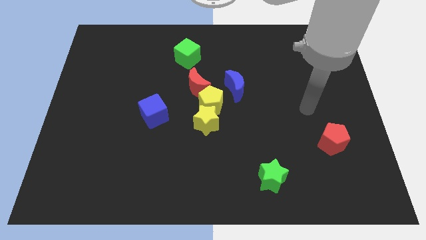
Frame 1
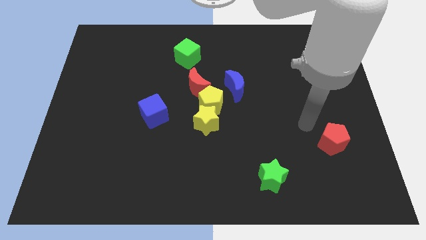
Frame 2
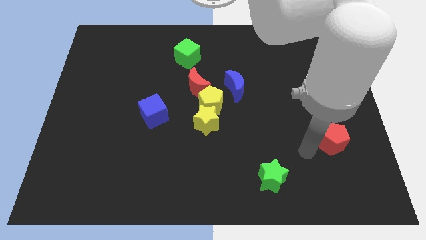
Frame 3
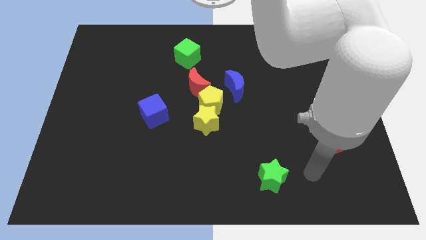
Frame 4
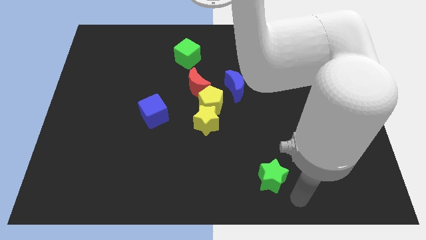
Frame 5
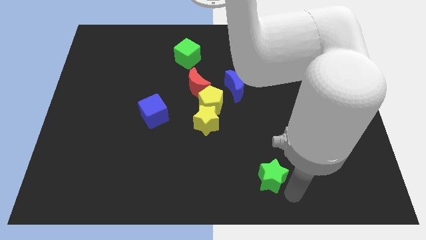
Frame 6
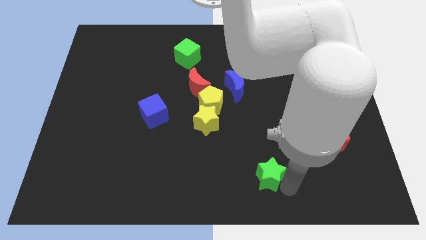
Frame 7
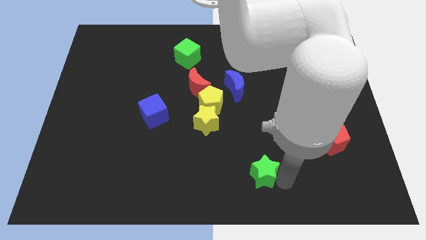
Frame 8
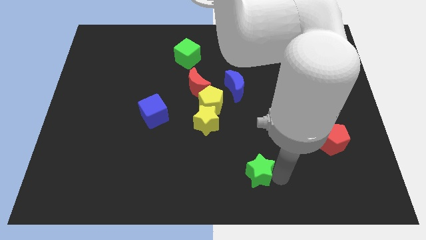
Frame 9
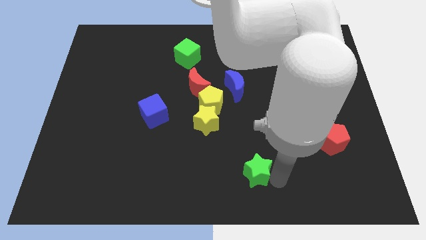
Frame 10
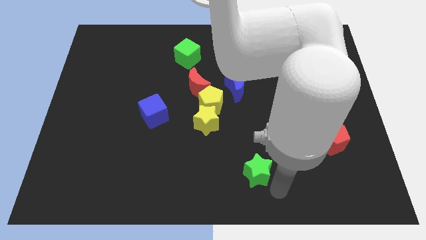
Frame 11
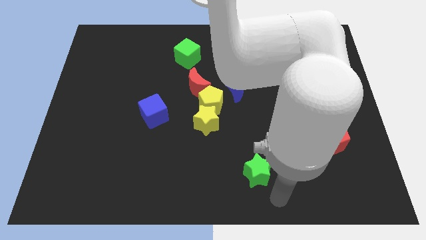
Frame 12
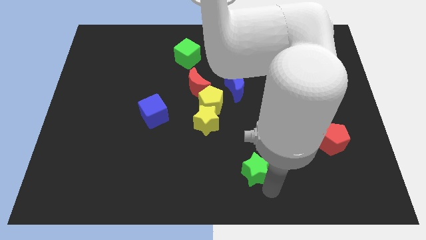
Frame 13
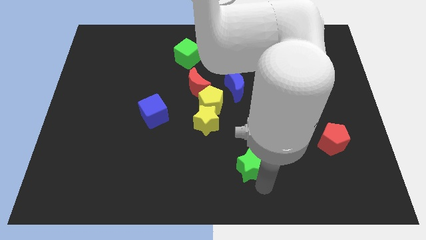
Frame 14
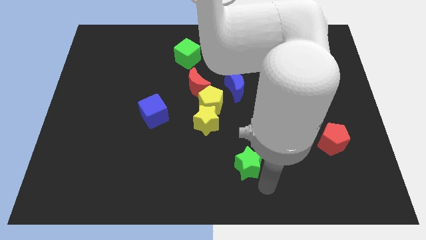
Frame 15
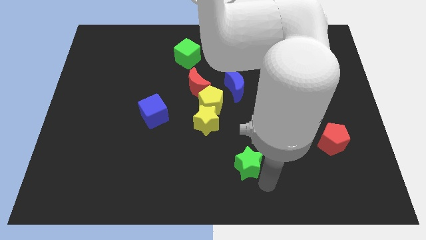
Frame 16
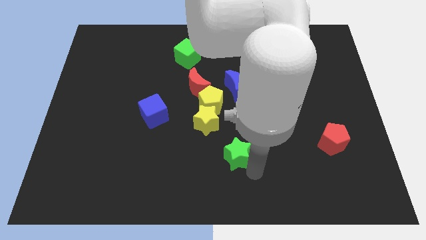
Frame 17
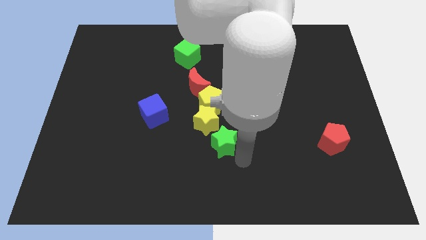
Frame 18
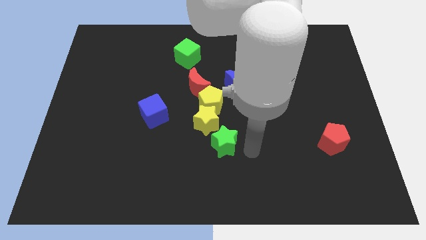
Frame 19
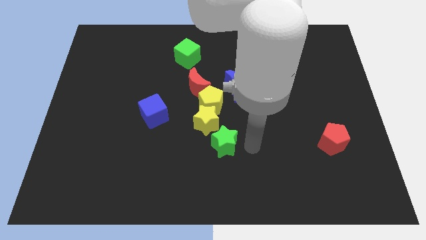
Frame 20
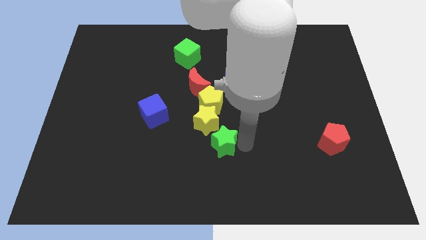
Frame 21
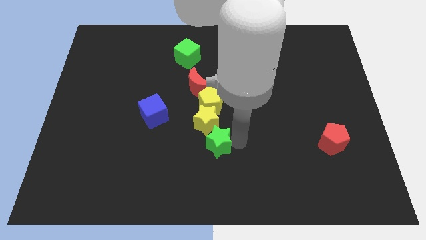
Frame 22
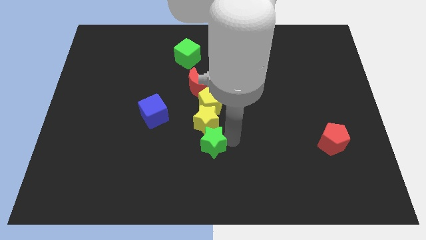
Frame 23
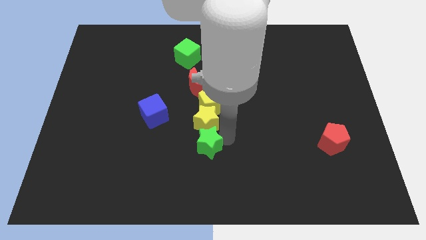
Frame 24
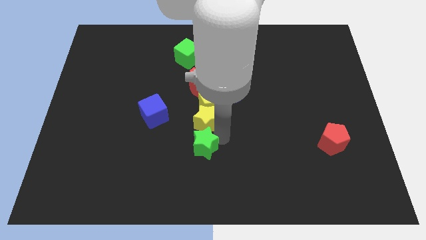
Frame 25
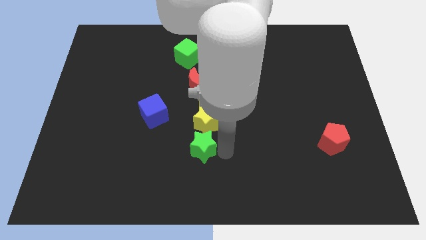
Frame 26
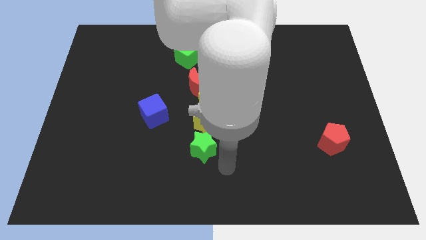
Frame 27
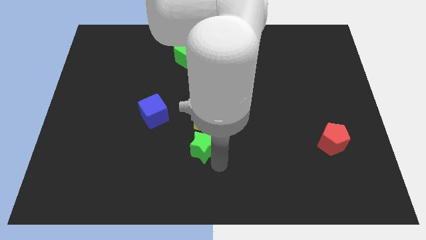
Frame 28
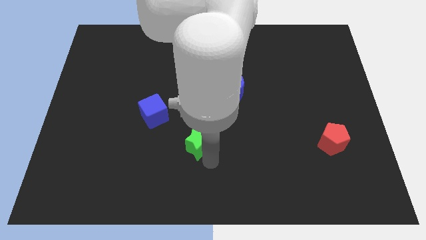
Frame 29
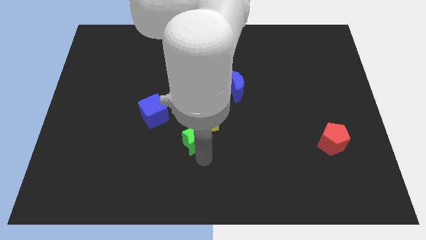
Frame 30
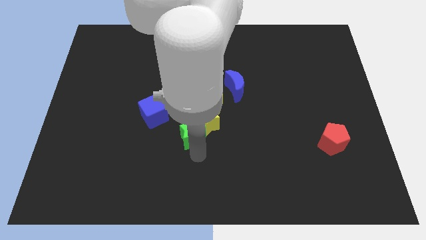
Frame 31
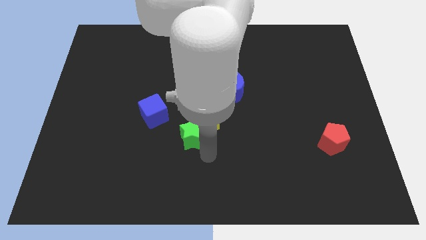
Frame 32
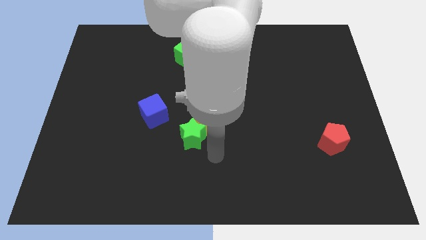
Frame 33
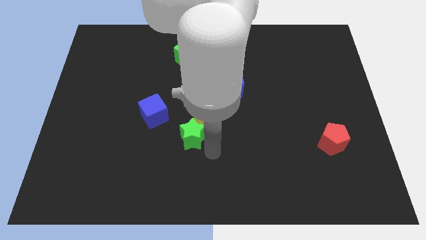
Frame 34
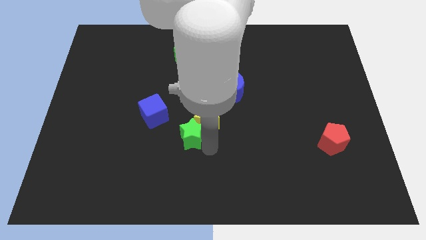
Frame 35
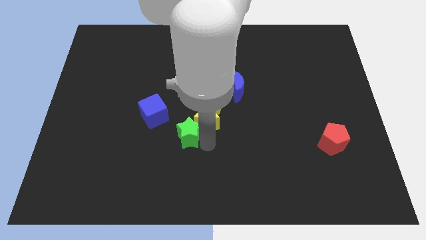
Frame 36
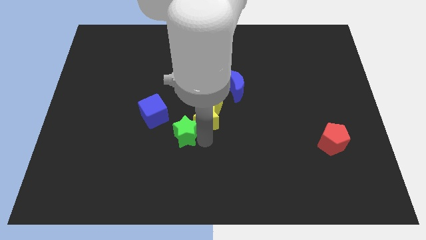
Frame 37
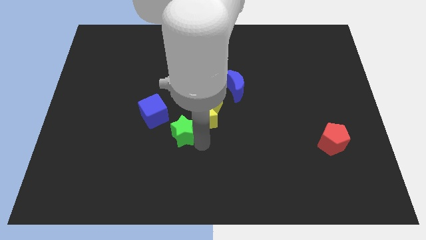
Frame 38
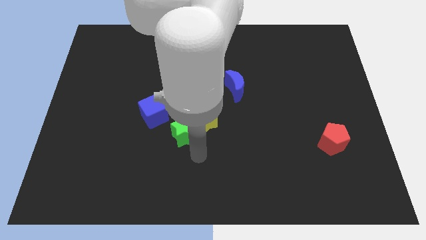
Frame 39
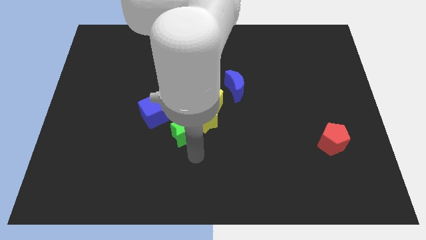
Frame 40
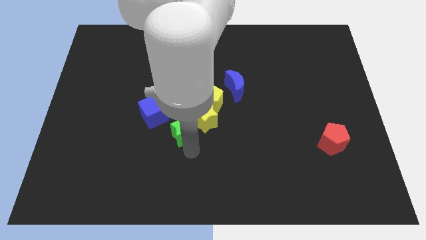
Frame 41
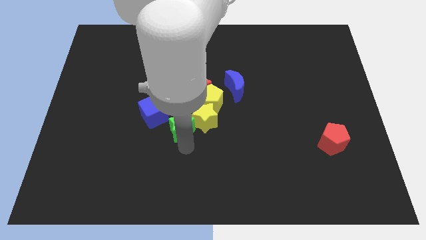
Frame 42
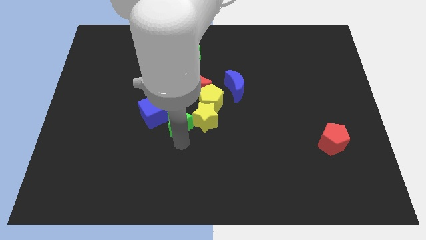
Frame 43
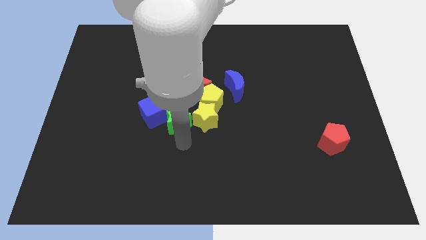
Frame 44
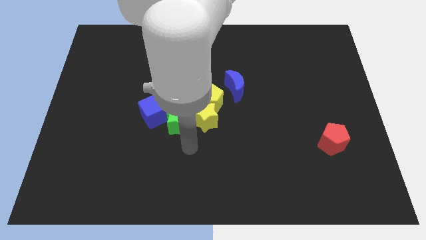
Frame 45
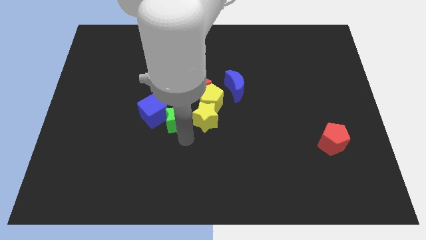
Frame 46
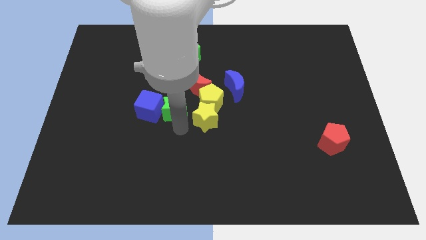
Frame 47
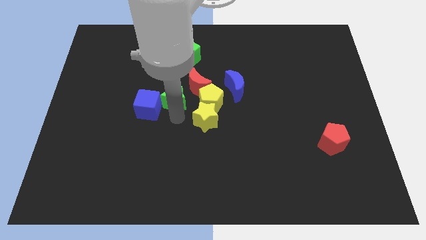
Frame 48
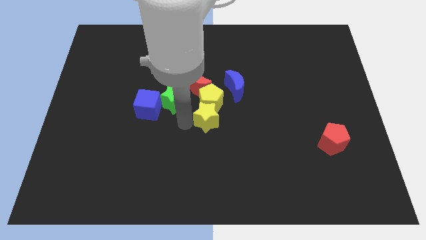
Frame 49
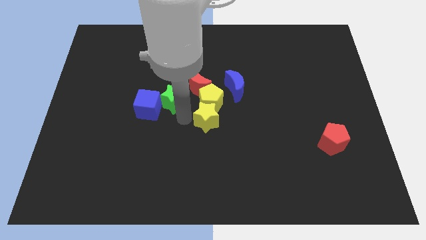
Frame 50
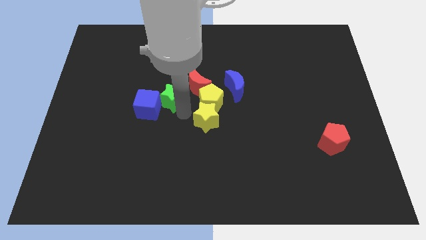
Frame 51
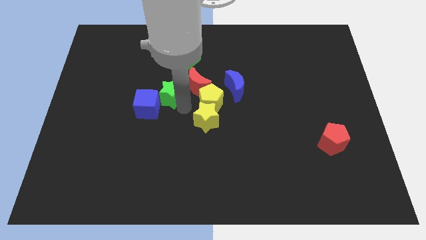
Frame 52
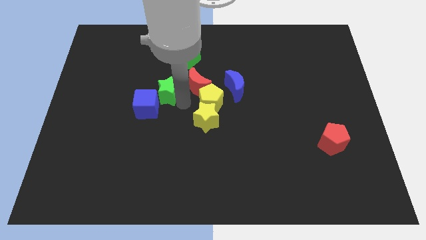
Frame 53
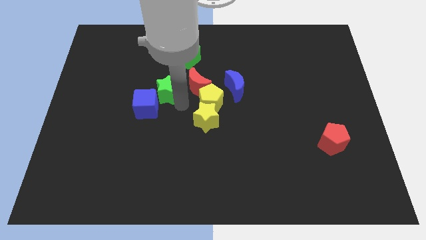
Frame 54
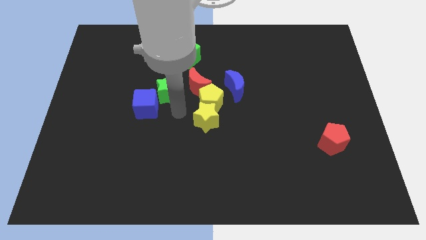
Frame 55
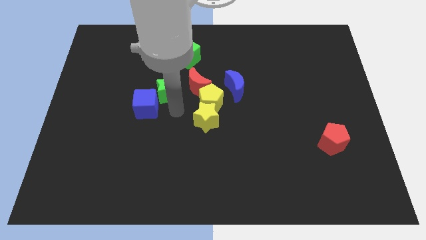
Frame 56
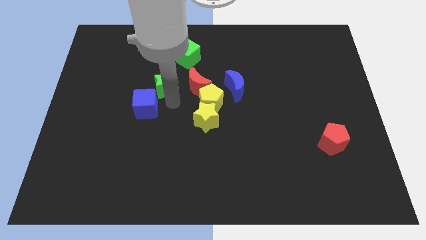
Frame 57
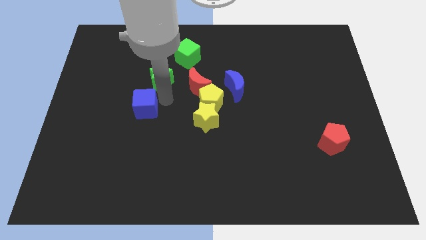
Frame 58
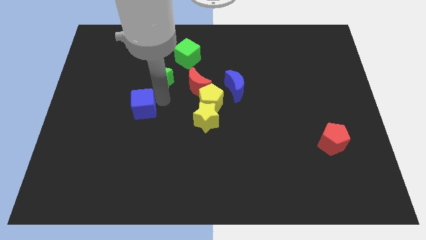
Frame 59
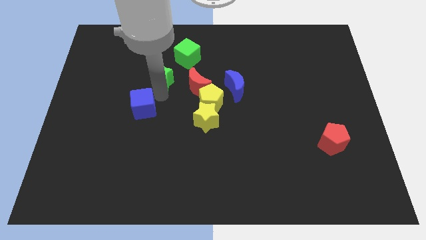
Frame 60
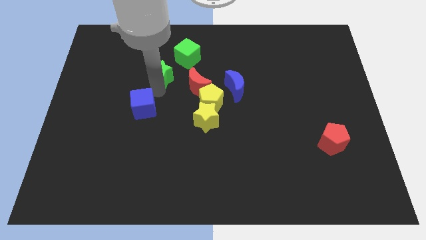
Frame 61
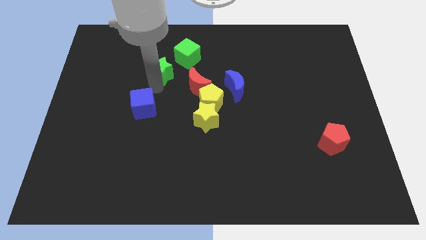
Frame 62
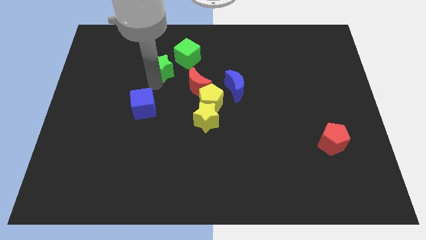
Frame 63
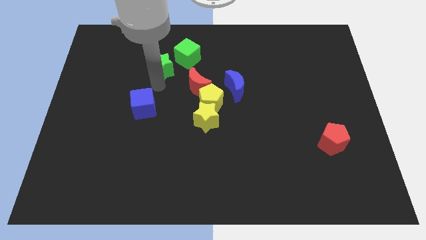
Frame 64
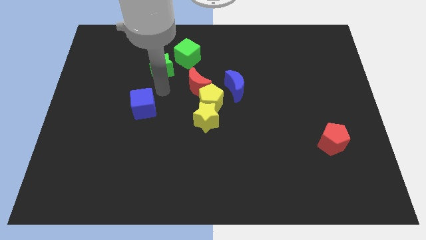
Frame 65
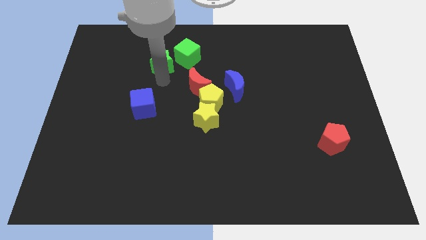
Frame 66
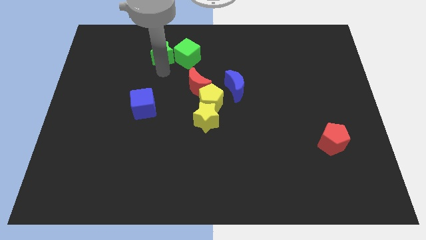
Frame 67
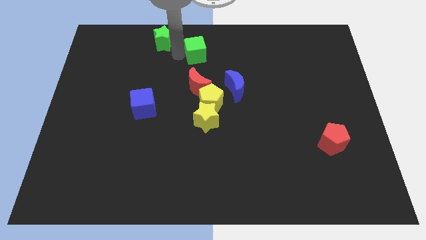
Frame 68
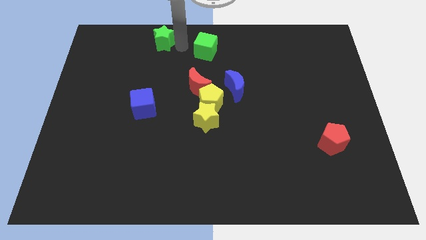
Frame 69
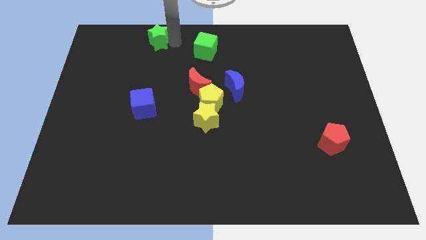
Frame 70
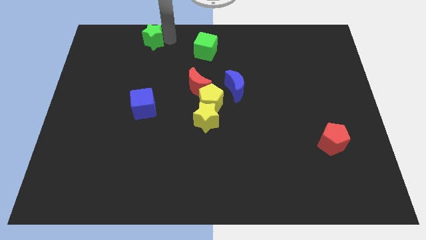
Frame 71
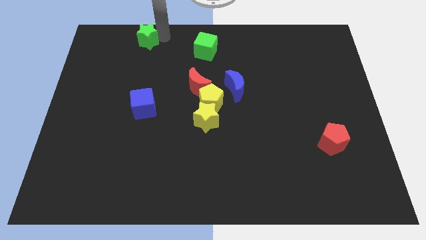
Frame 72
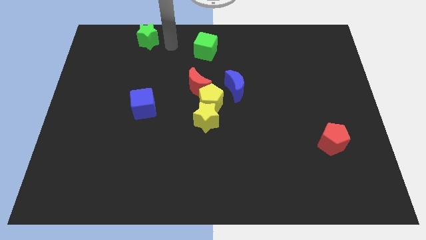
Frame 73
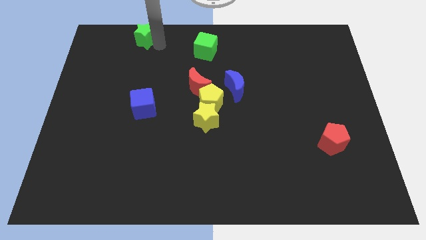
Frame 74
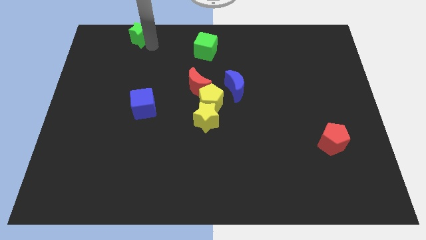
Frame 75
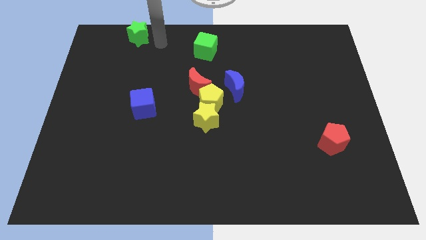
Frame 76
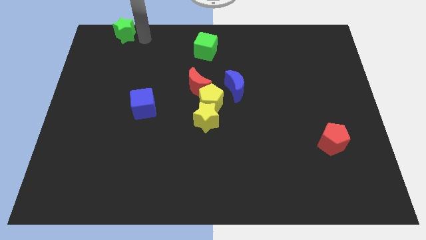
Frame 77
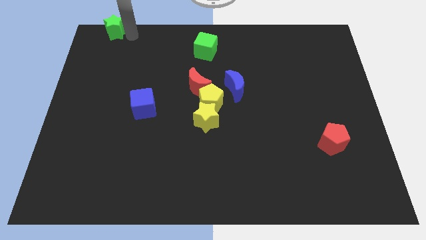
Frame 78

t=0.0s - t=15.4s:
move the green star to the upper left corner

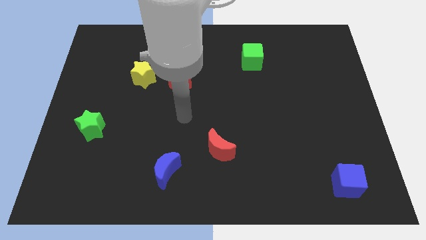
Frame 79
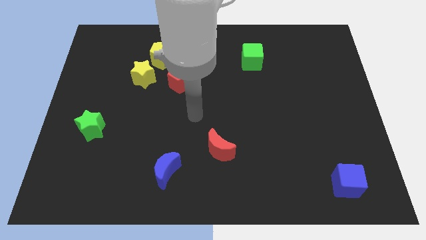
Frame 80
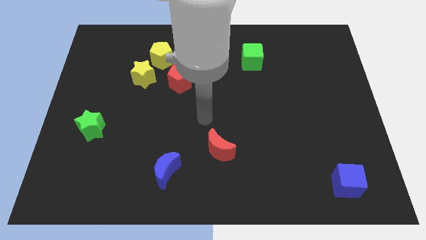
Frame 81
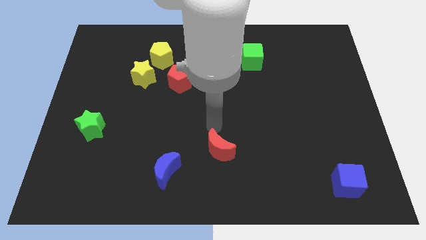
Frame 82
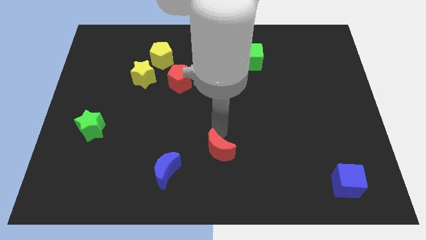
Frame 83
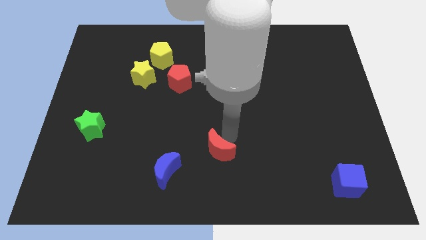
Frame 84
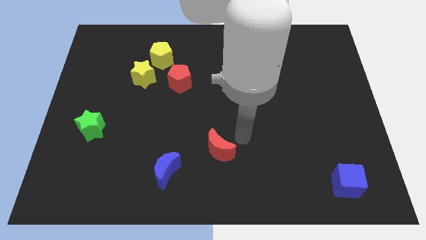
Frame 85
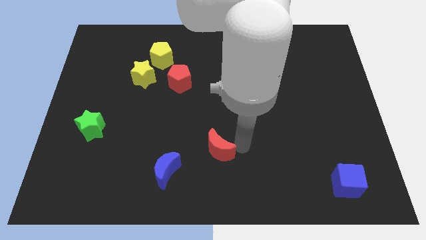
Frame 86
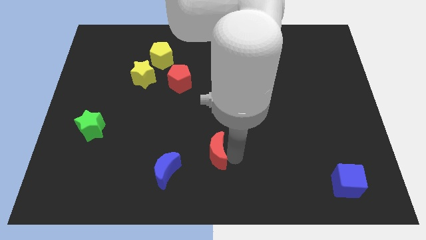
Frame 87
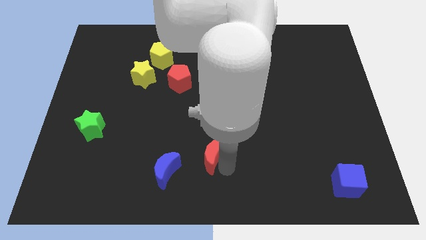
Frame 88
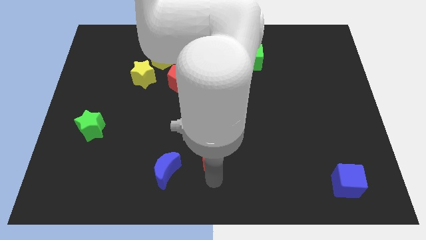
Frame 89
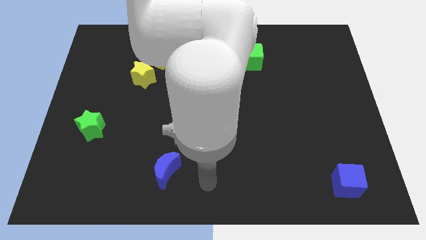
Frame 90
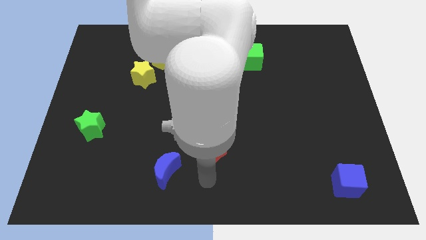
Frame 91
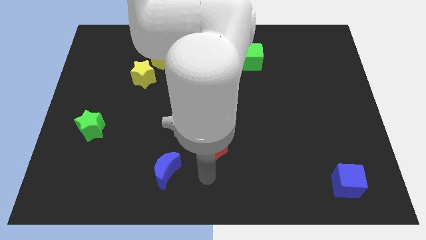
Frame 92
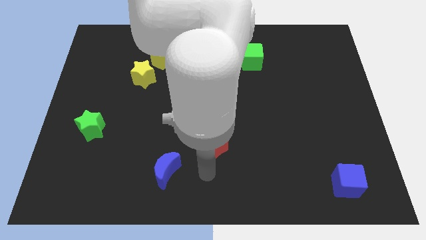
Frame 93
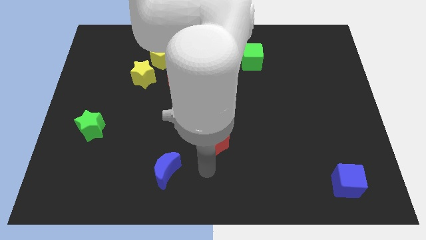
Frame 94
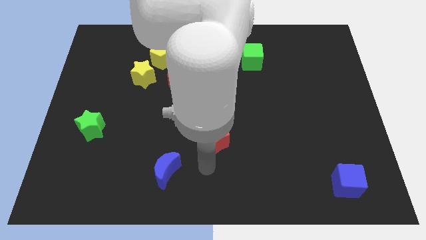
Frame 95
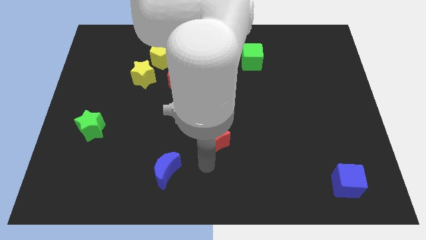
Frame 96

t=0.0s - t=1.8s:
move the red moon to the middle of the board
